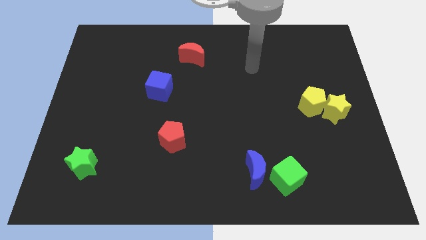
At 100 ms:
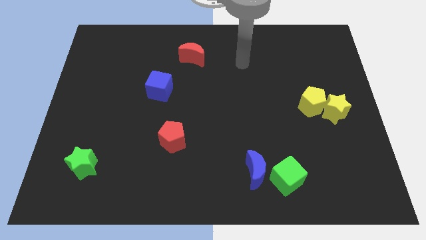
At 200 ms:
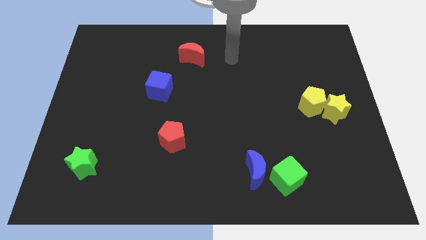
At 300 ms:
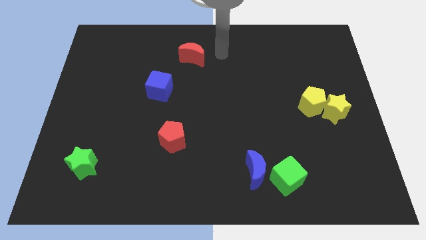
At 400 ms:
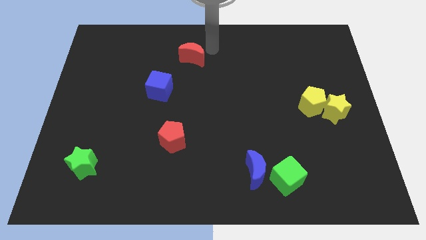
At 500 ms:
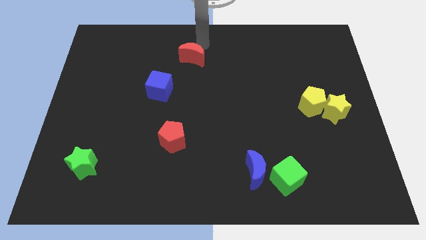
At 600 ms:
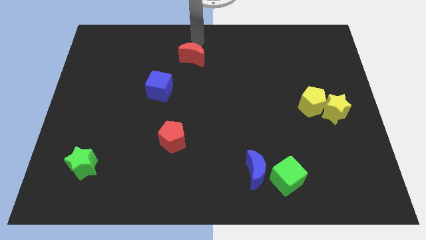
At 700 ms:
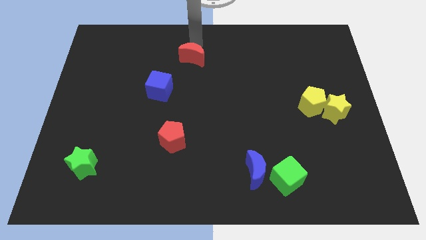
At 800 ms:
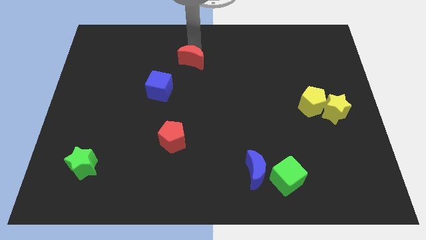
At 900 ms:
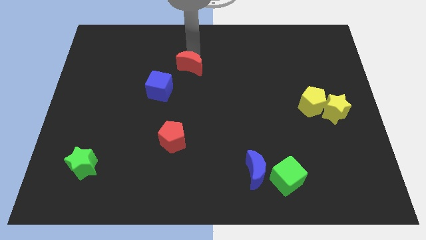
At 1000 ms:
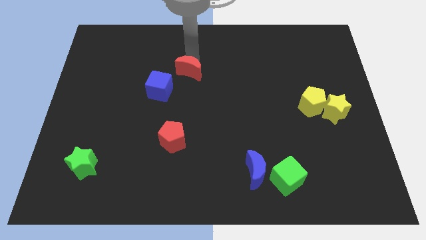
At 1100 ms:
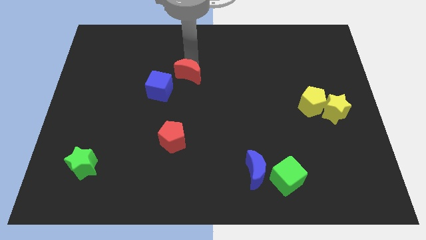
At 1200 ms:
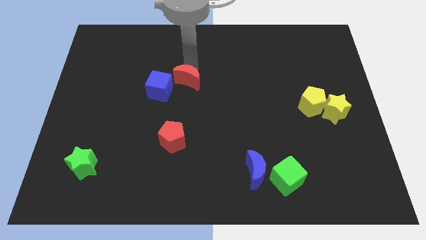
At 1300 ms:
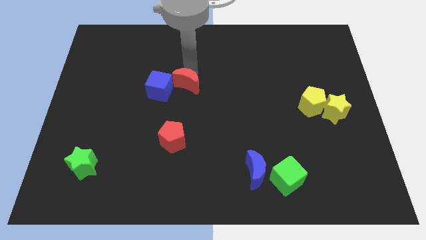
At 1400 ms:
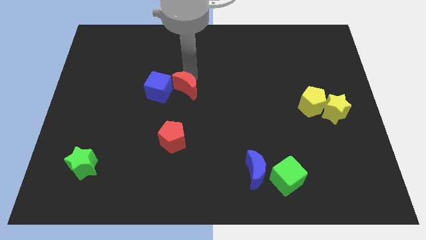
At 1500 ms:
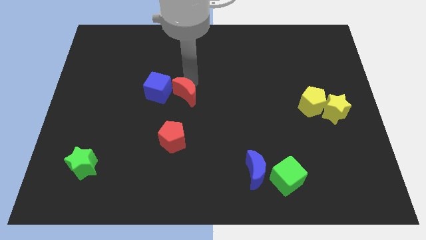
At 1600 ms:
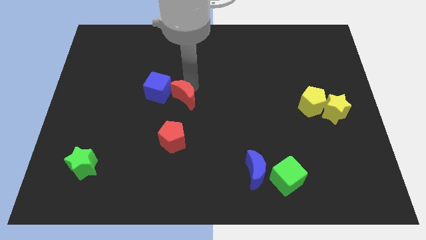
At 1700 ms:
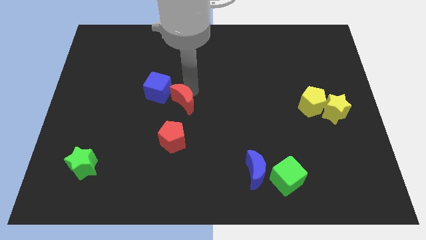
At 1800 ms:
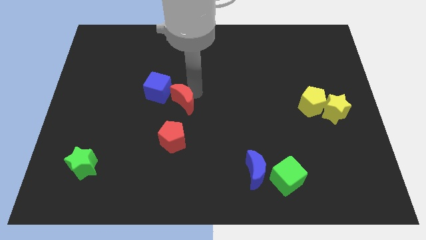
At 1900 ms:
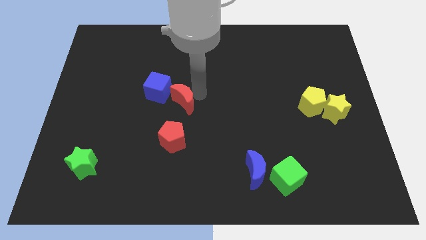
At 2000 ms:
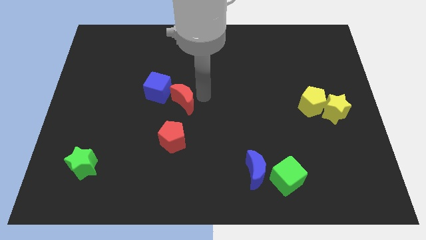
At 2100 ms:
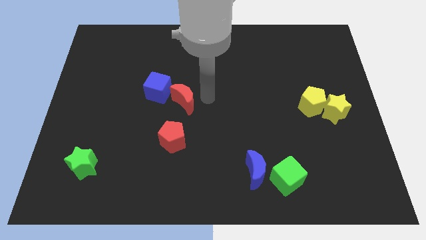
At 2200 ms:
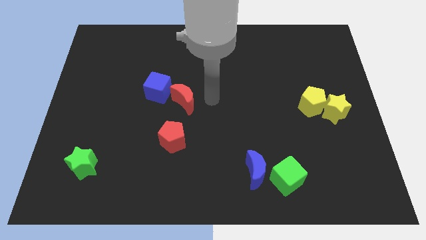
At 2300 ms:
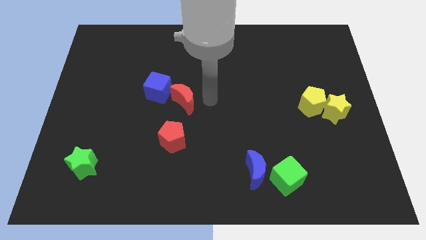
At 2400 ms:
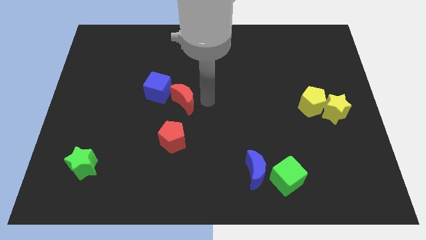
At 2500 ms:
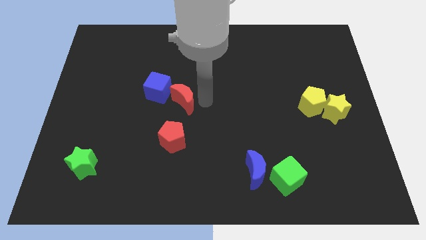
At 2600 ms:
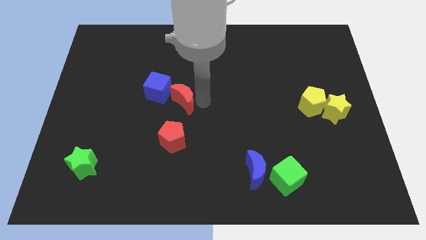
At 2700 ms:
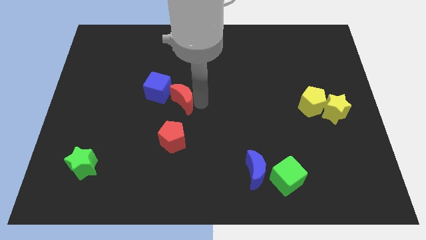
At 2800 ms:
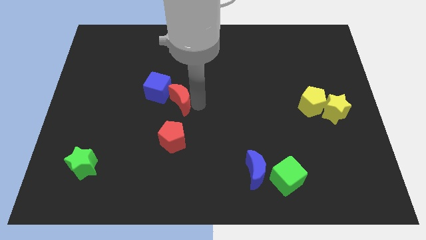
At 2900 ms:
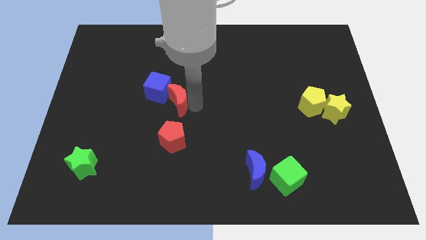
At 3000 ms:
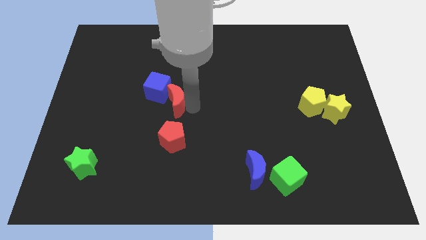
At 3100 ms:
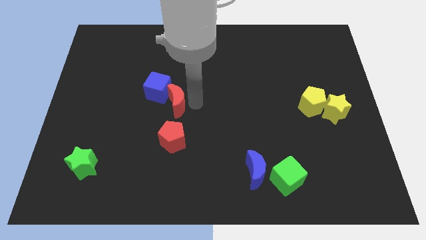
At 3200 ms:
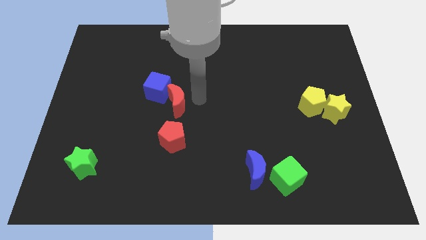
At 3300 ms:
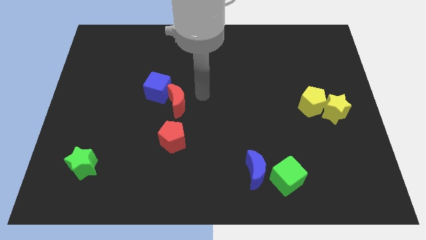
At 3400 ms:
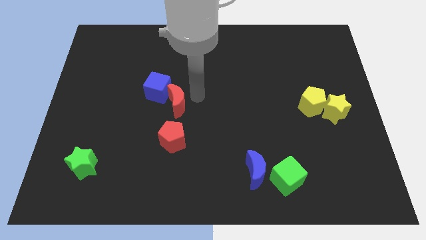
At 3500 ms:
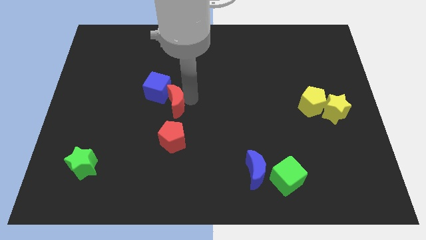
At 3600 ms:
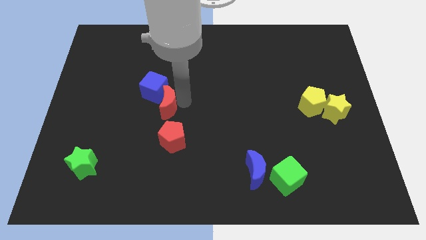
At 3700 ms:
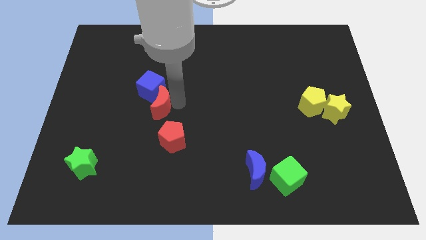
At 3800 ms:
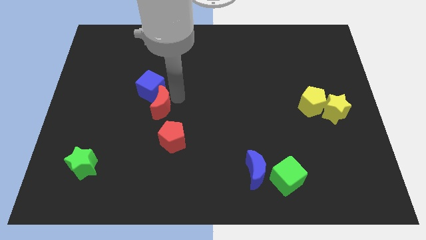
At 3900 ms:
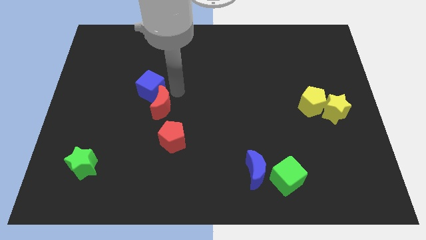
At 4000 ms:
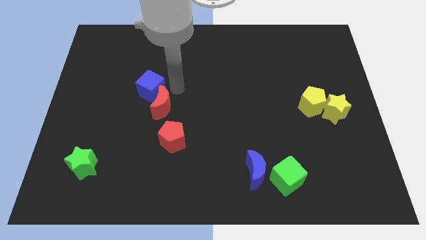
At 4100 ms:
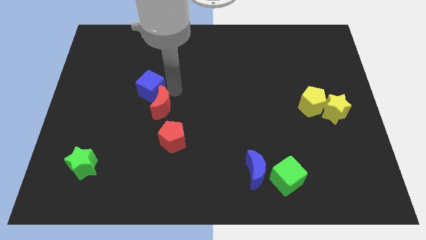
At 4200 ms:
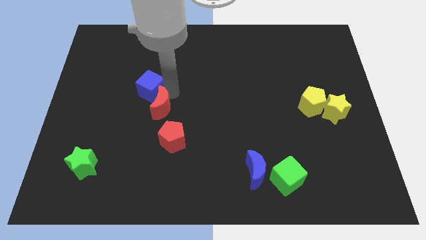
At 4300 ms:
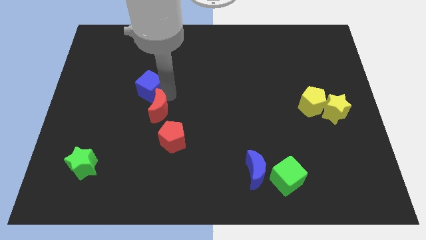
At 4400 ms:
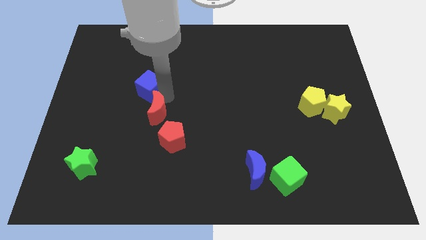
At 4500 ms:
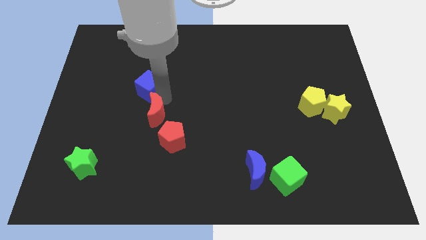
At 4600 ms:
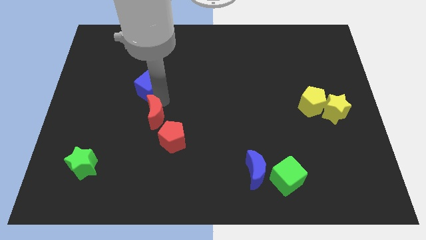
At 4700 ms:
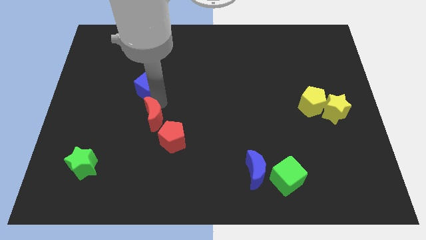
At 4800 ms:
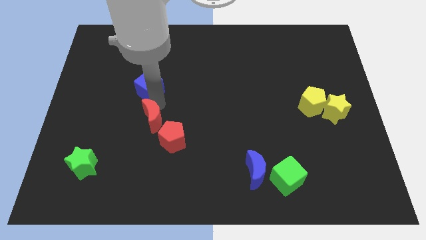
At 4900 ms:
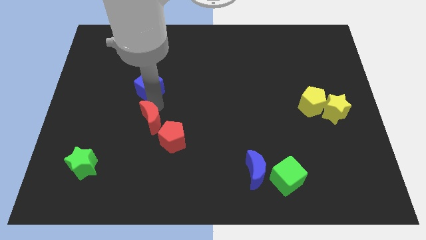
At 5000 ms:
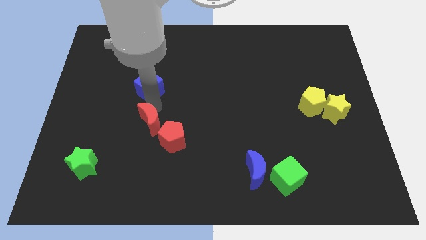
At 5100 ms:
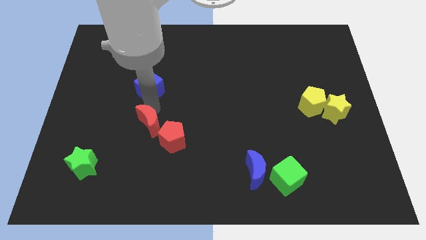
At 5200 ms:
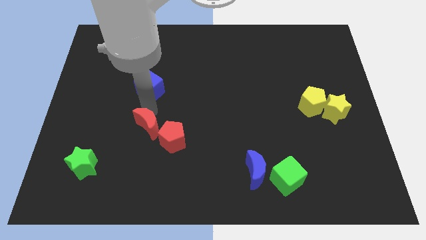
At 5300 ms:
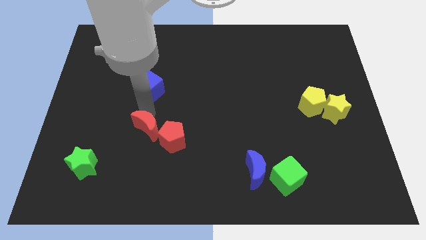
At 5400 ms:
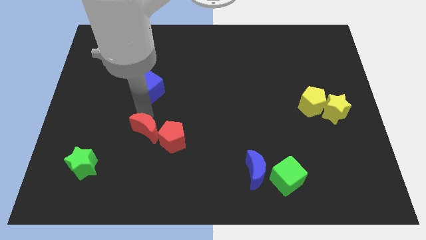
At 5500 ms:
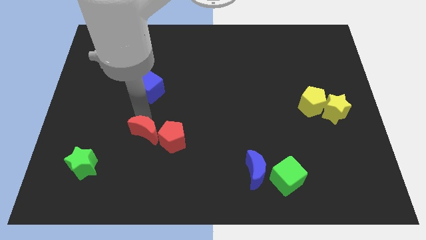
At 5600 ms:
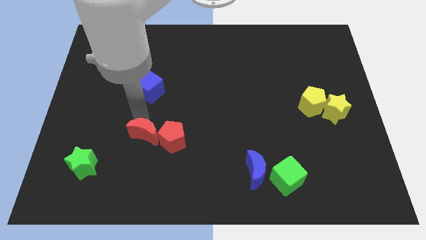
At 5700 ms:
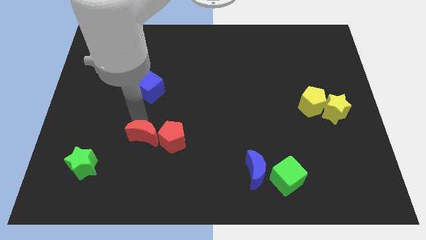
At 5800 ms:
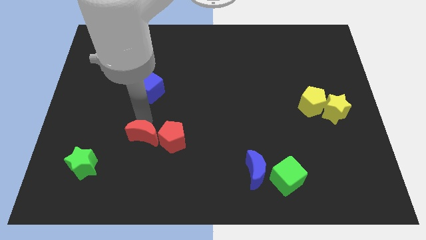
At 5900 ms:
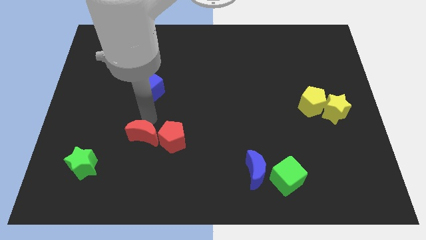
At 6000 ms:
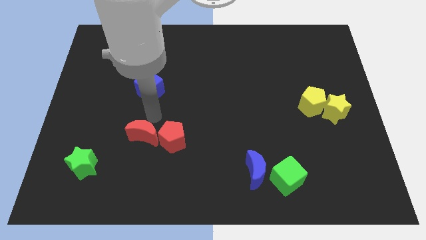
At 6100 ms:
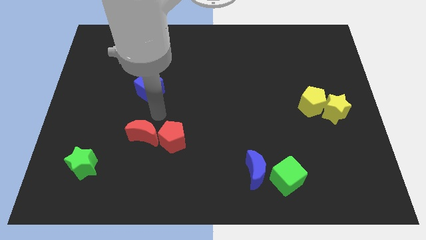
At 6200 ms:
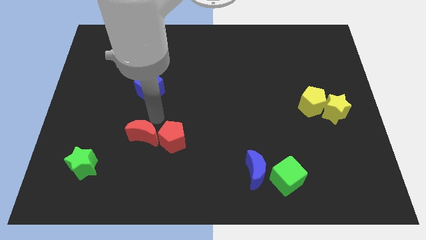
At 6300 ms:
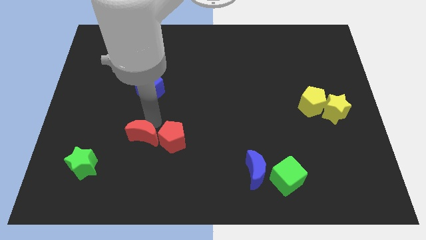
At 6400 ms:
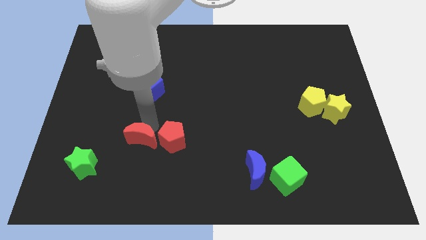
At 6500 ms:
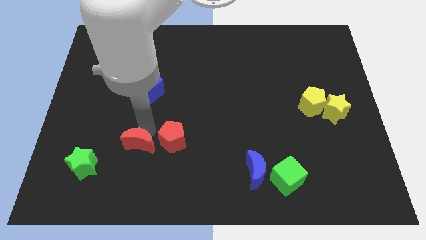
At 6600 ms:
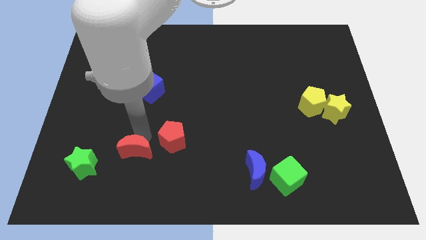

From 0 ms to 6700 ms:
put the red moon just right of the green star

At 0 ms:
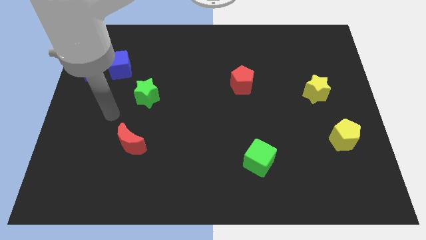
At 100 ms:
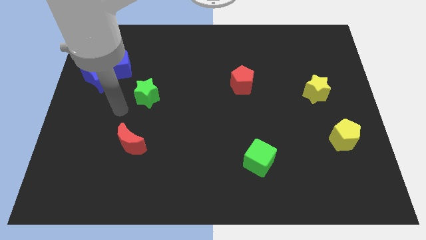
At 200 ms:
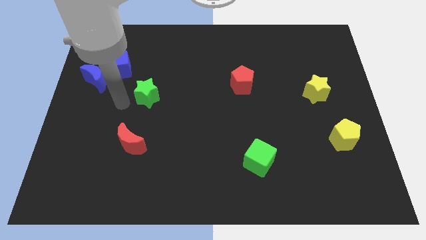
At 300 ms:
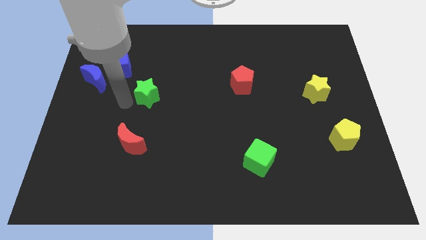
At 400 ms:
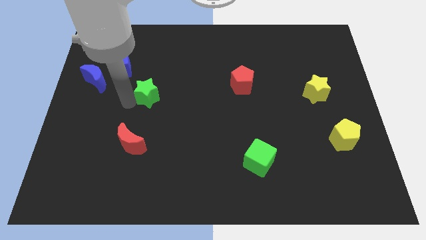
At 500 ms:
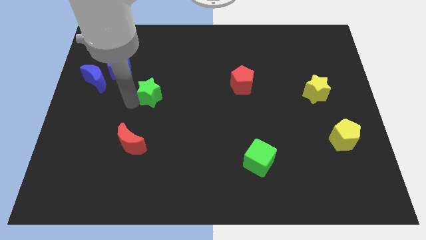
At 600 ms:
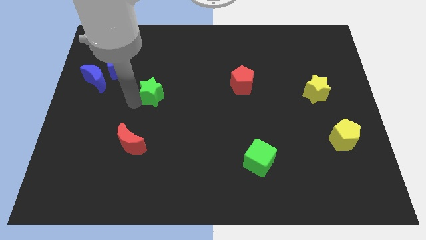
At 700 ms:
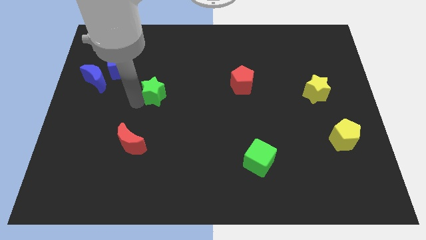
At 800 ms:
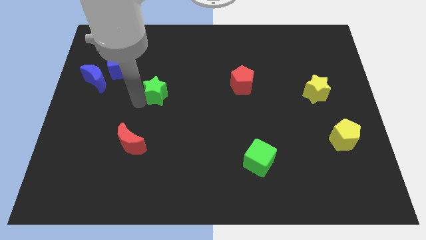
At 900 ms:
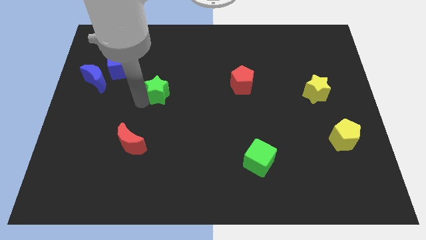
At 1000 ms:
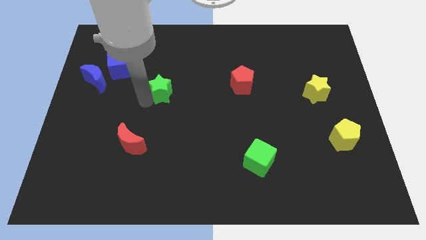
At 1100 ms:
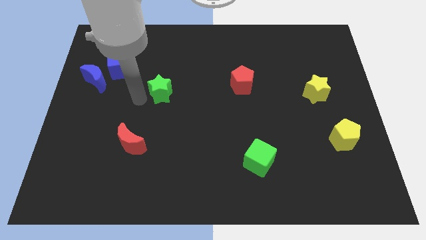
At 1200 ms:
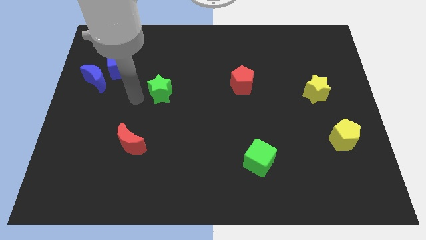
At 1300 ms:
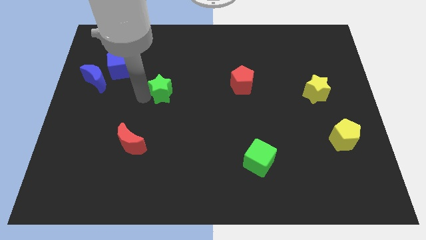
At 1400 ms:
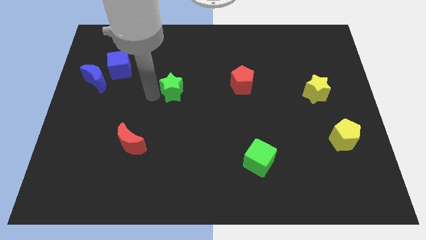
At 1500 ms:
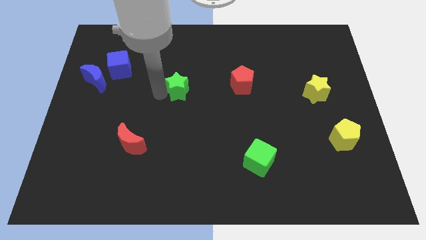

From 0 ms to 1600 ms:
slide the green star left of the red pentagon

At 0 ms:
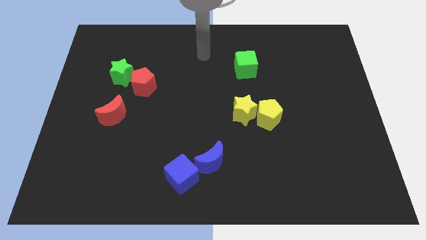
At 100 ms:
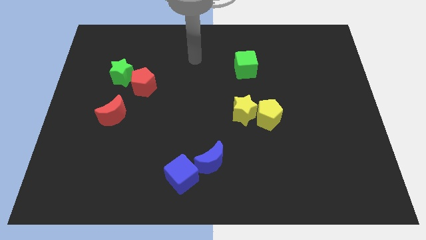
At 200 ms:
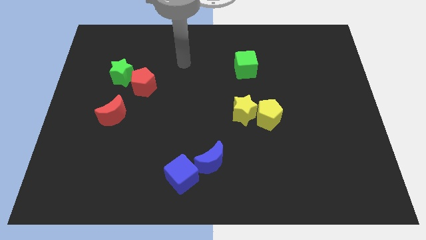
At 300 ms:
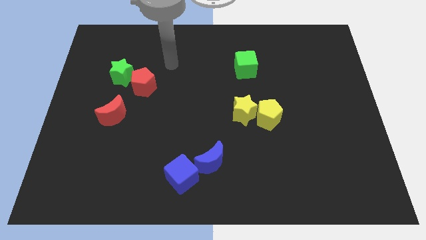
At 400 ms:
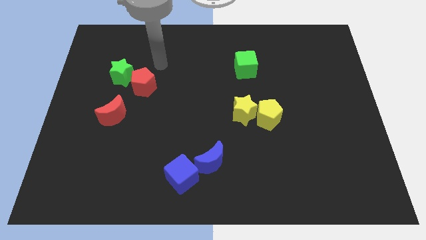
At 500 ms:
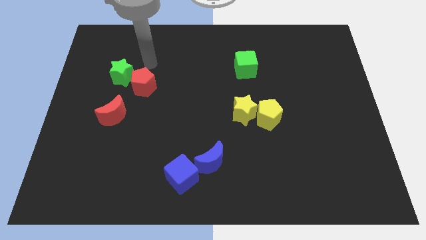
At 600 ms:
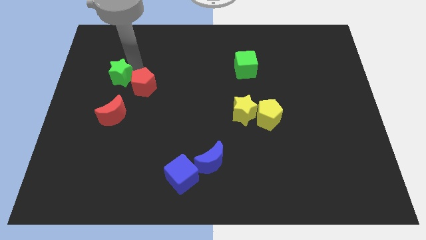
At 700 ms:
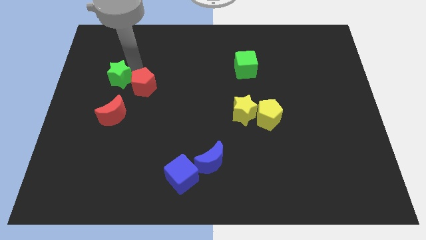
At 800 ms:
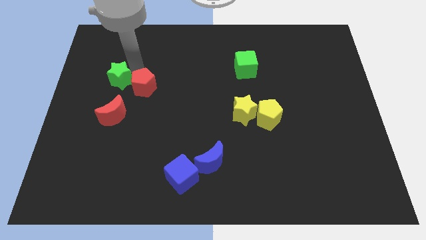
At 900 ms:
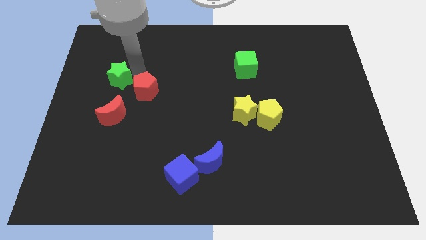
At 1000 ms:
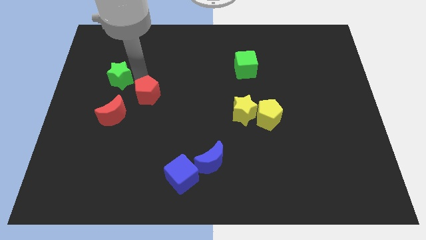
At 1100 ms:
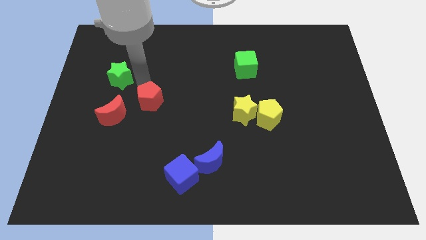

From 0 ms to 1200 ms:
move the red pentagon just right of the red moon
